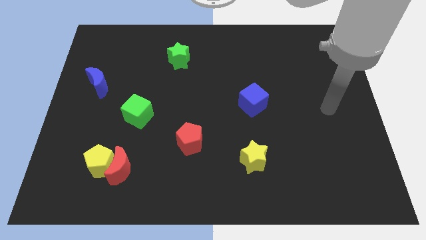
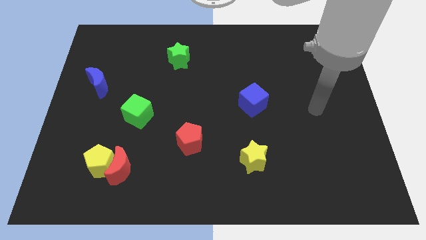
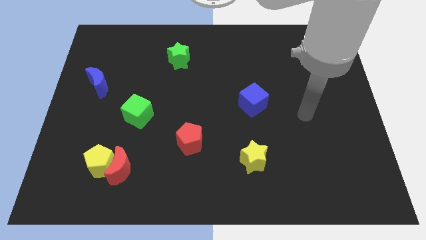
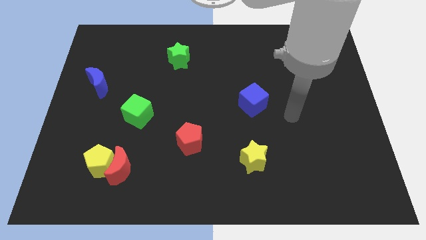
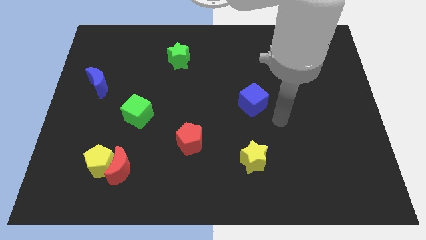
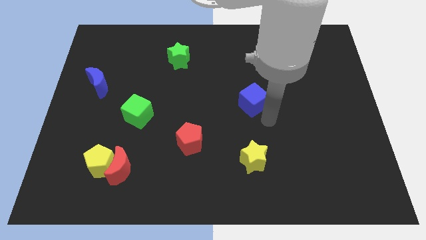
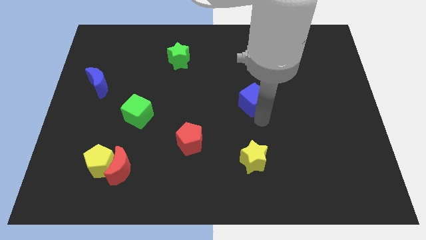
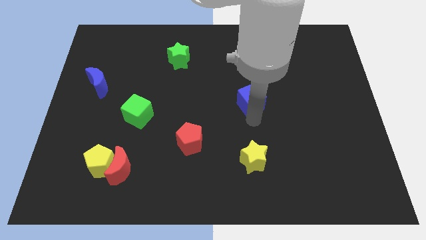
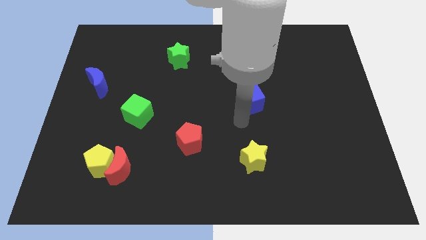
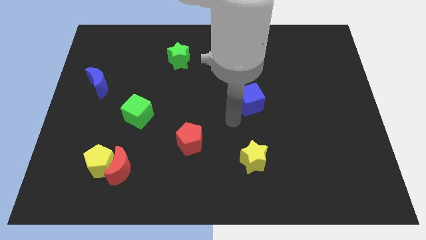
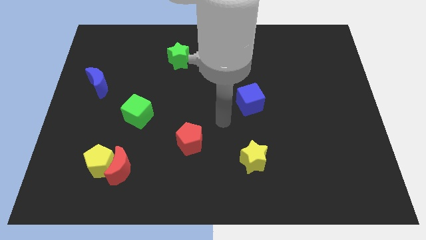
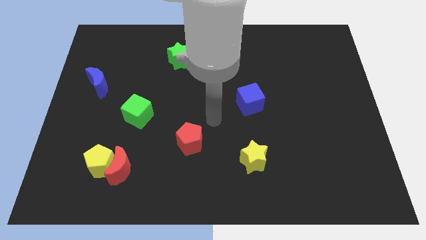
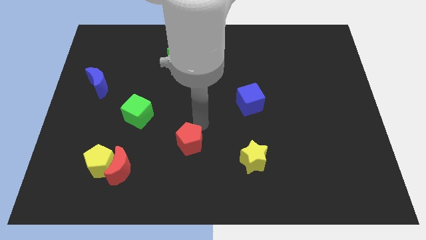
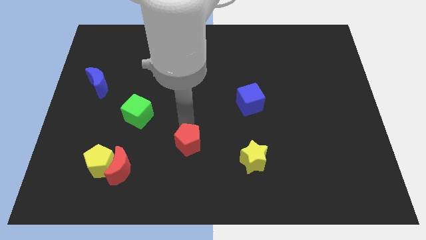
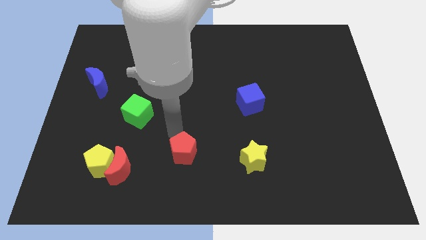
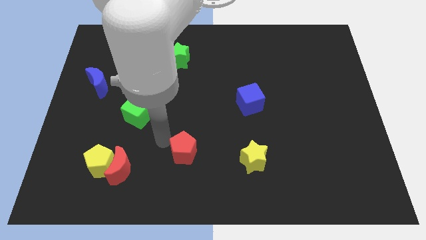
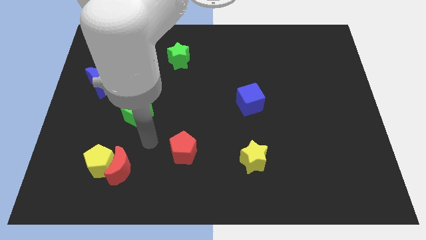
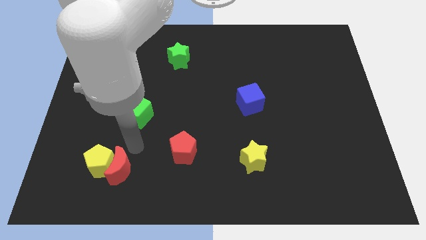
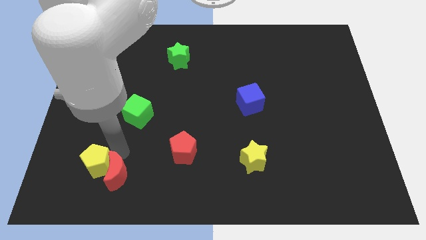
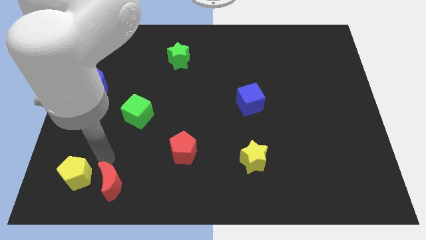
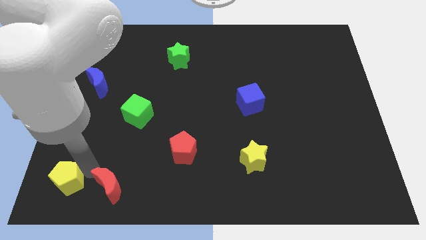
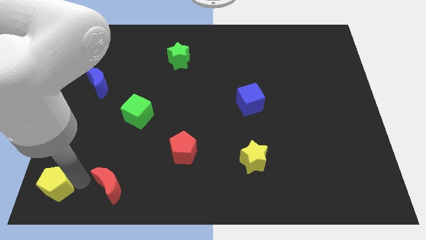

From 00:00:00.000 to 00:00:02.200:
move the red moon away from the yellow pentagon

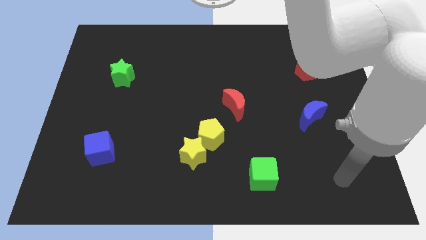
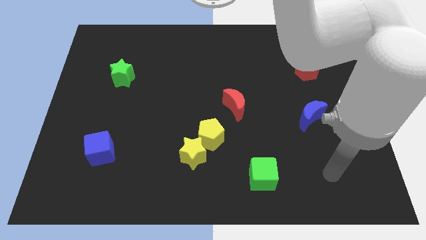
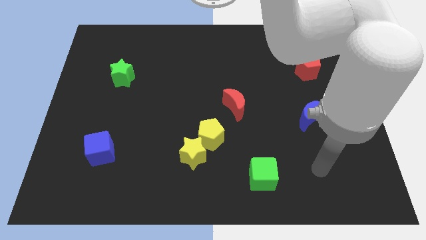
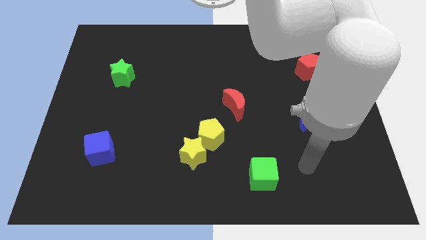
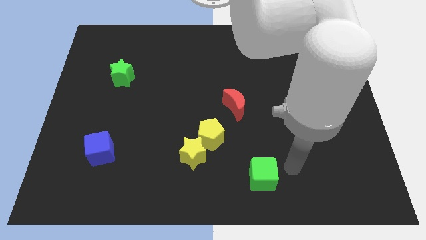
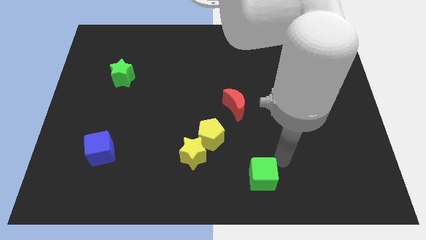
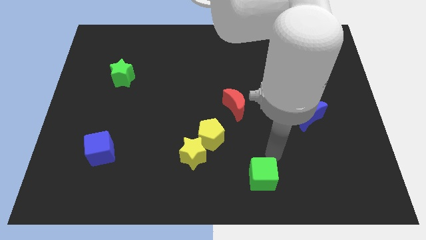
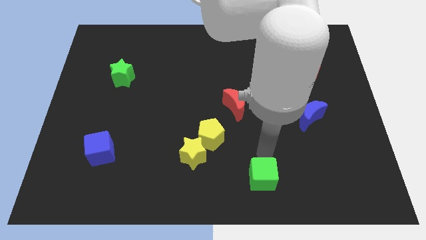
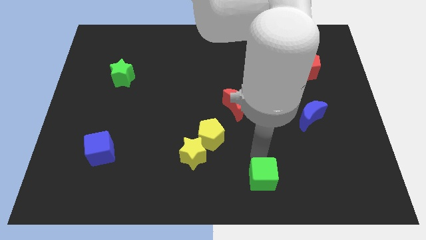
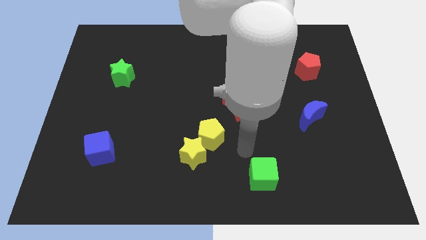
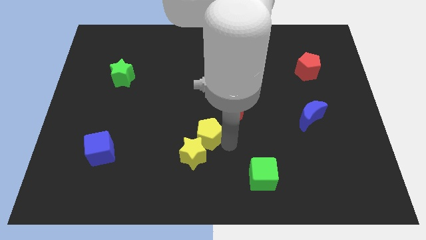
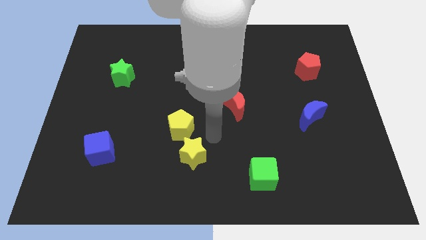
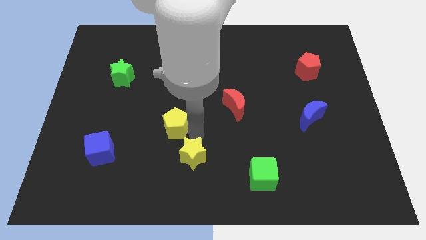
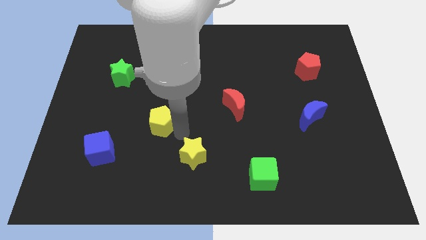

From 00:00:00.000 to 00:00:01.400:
move the yellow star away from the yellow pentagon

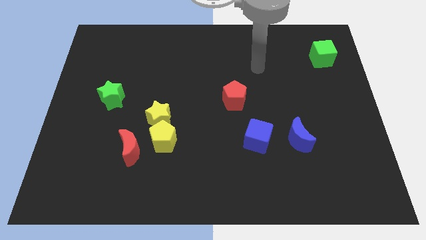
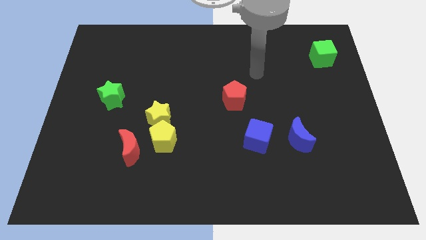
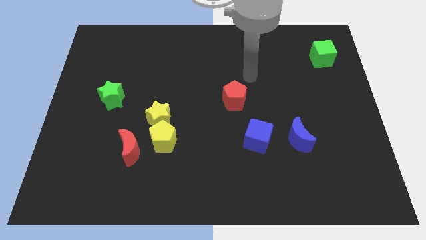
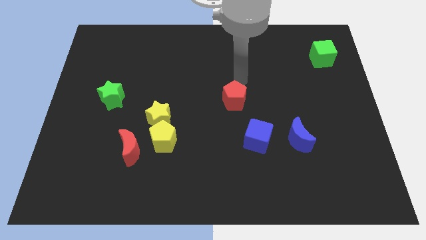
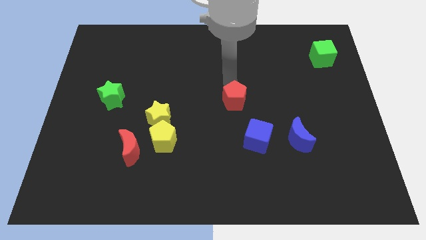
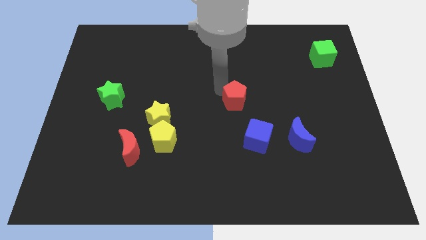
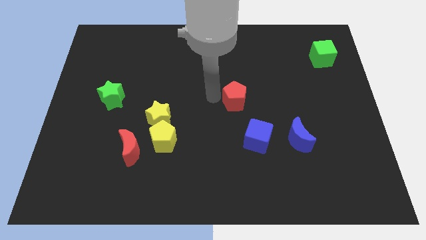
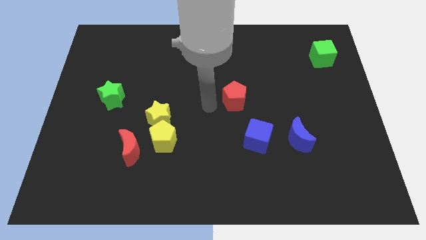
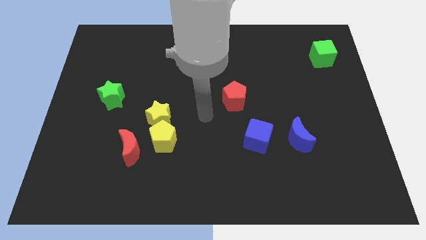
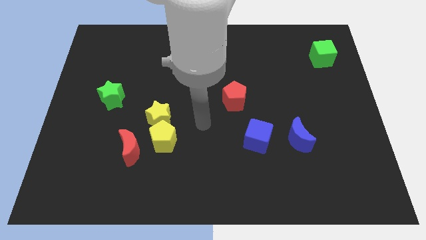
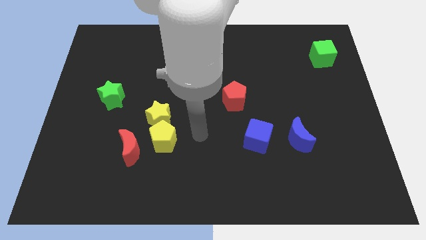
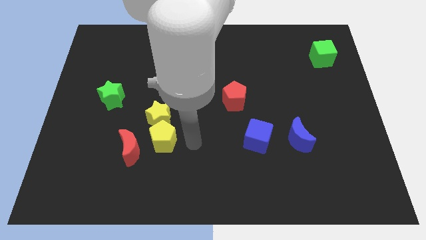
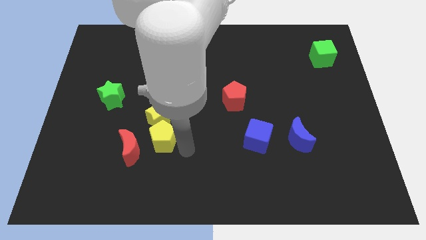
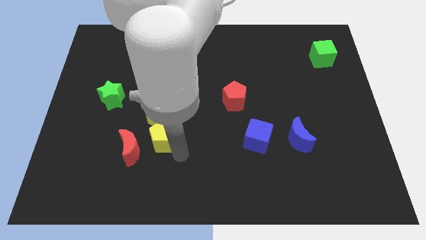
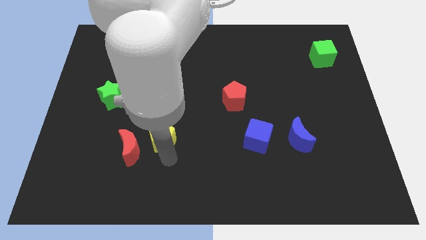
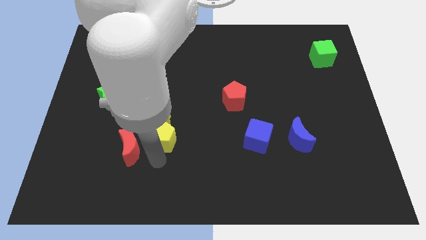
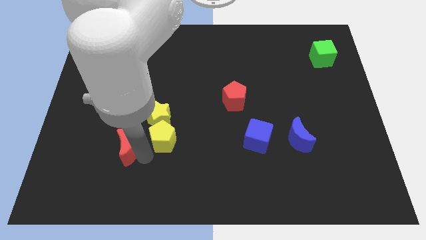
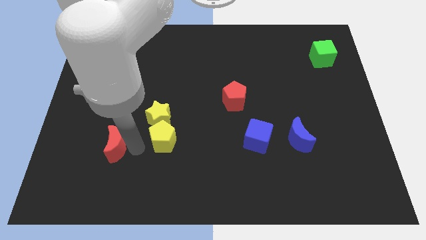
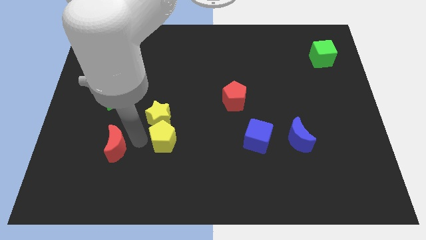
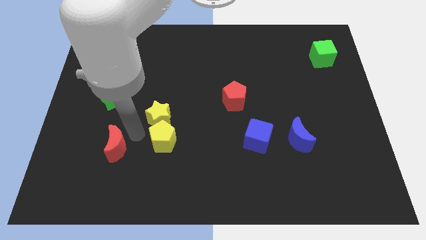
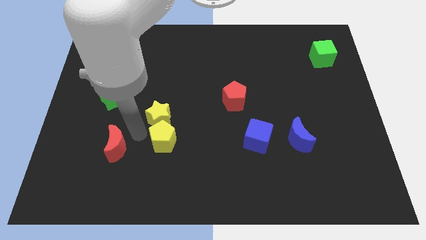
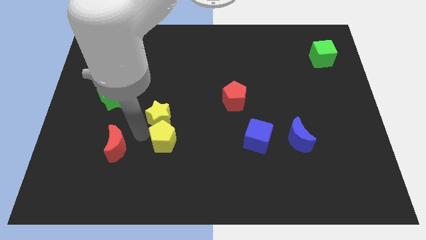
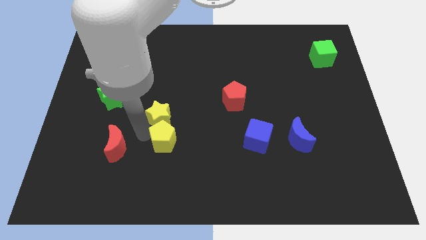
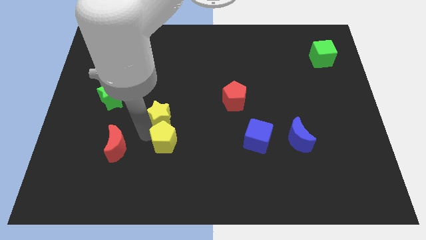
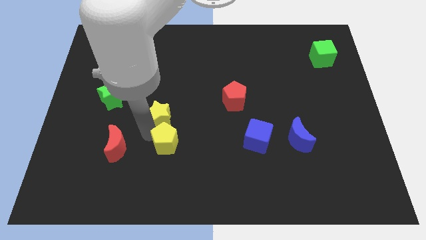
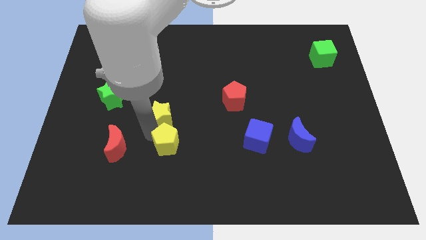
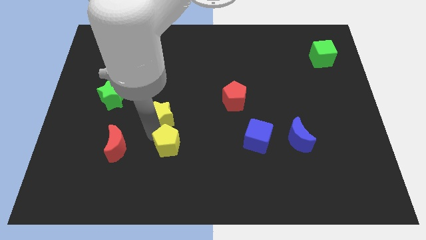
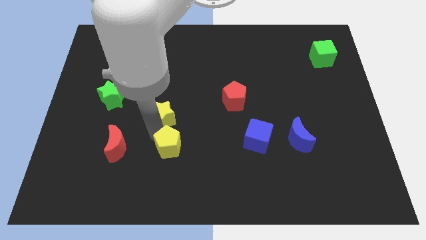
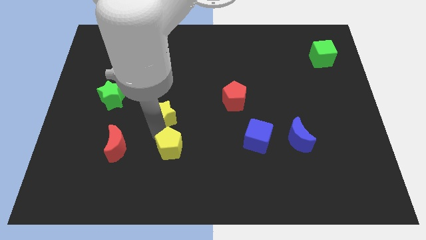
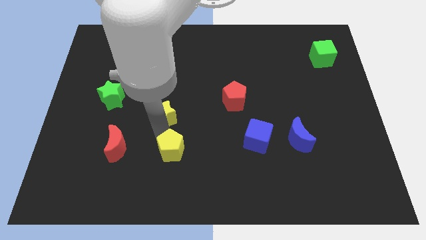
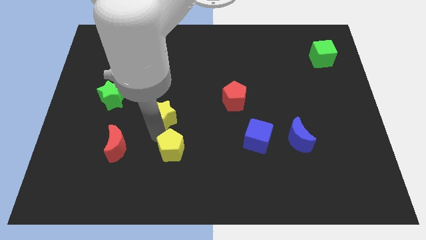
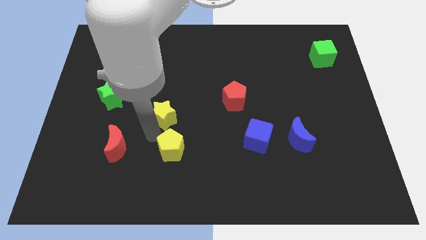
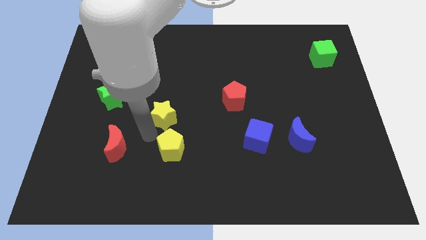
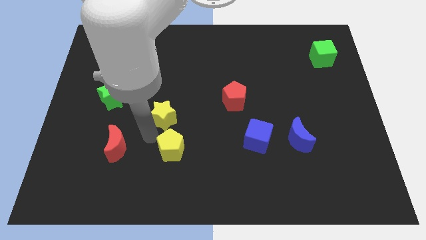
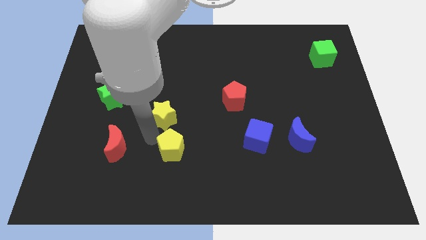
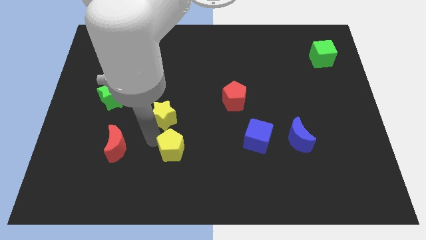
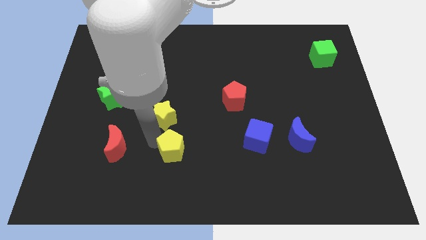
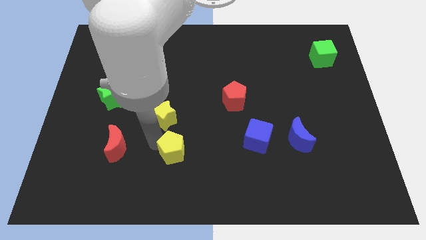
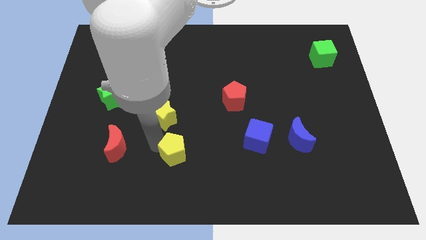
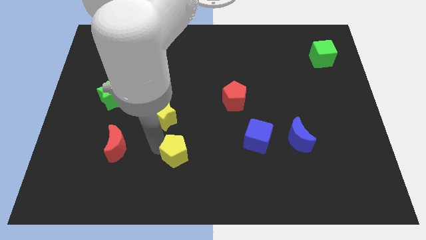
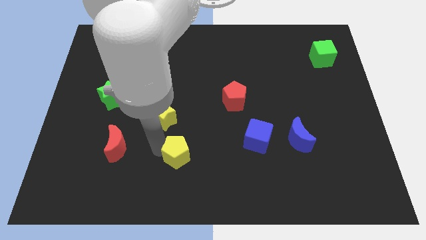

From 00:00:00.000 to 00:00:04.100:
move the yellow pentagon away from the yellow star and red moon

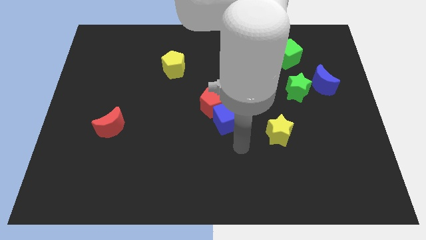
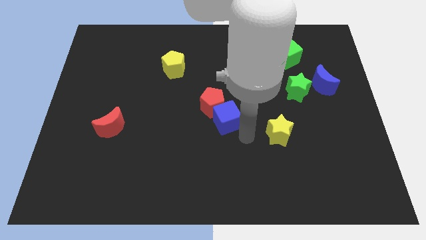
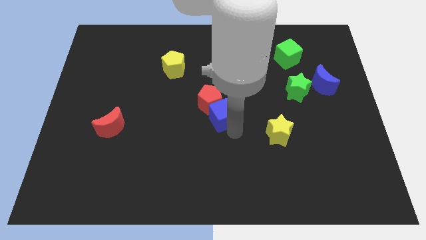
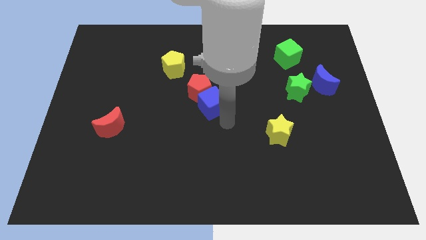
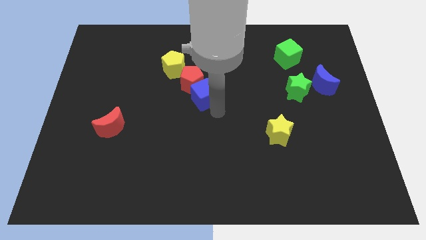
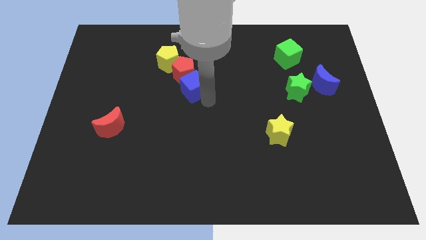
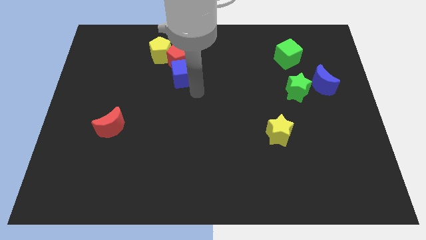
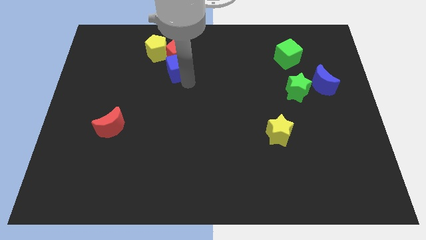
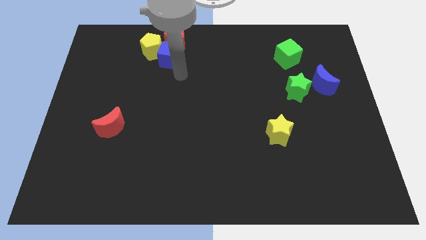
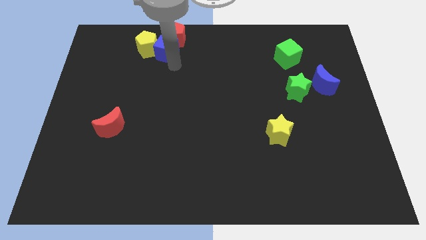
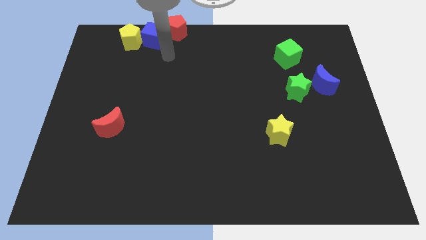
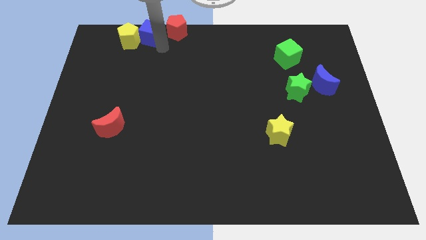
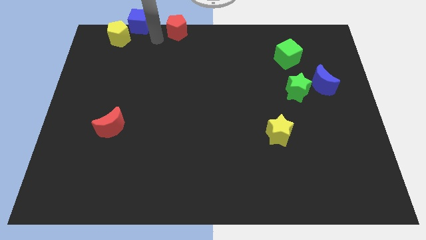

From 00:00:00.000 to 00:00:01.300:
pull the red pentagon apart from the blue cube

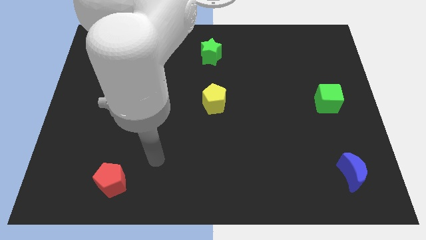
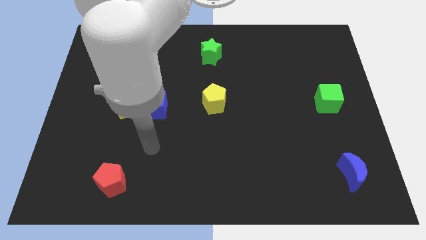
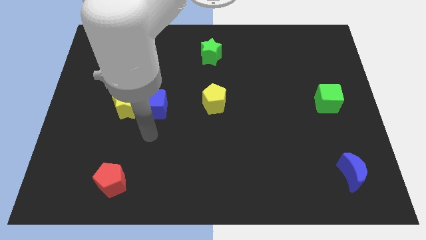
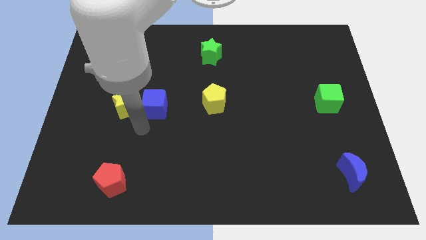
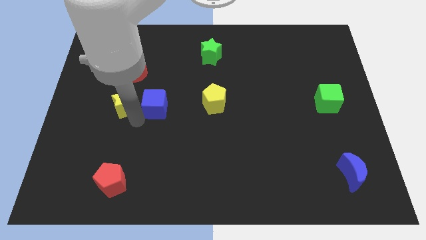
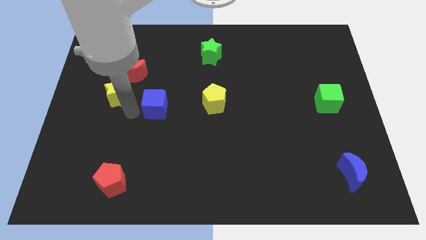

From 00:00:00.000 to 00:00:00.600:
move the blue cube away from the yellow star
